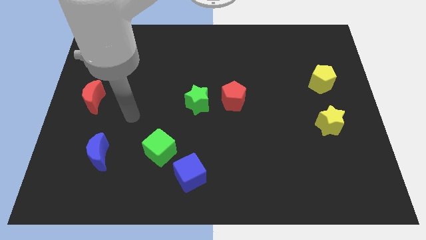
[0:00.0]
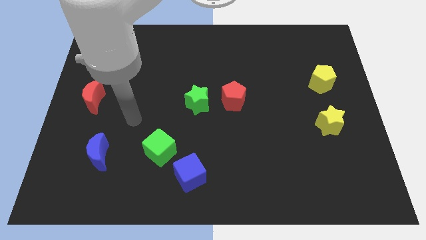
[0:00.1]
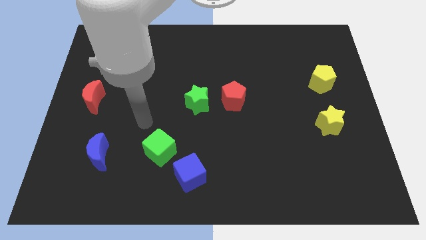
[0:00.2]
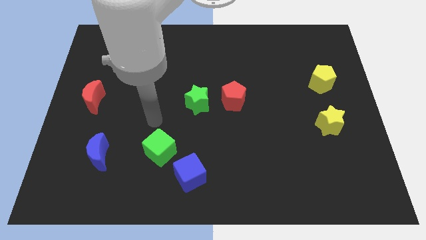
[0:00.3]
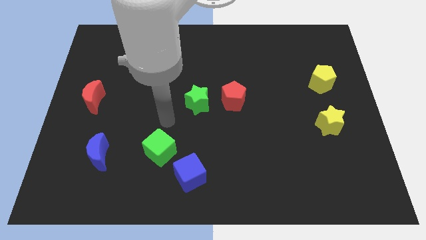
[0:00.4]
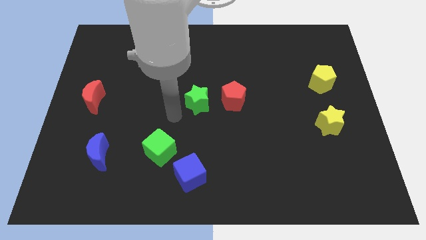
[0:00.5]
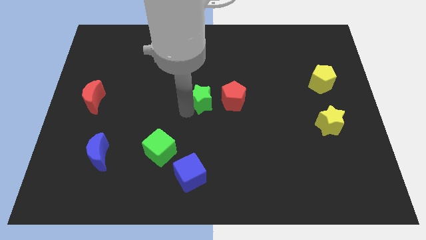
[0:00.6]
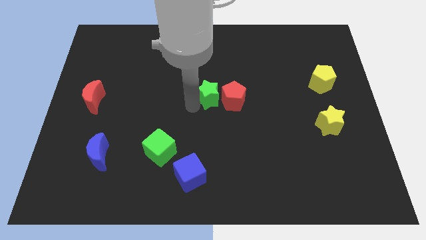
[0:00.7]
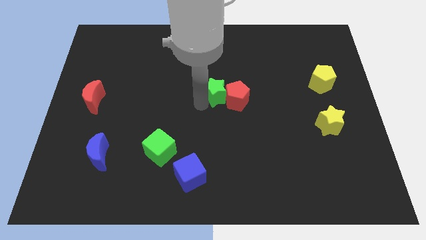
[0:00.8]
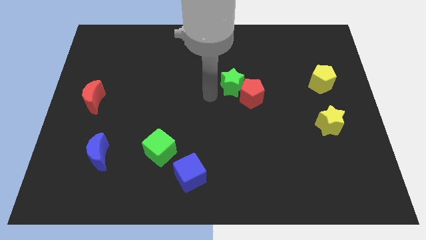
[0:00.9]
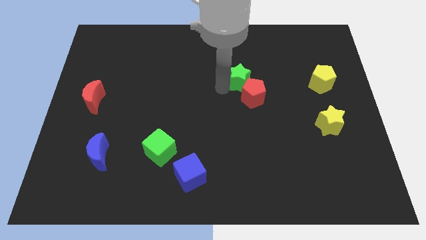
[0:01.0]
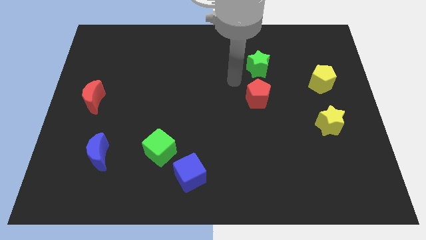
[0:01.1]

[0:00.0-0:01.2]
move the red pentagon away from the green star

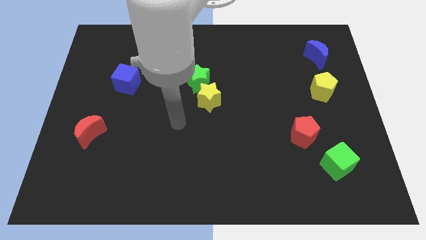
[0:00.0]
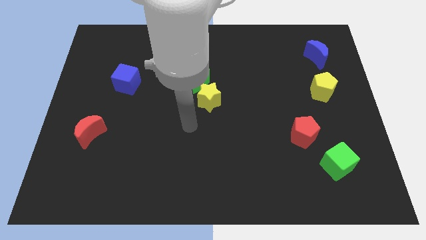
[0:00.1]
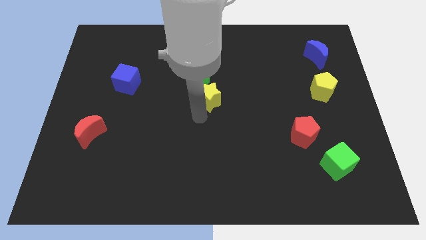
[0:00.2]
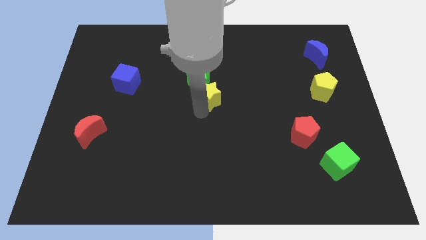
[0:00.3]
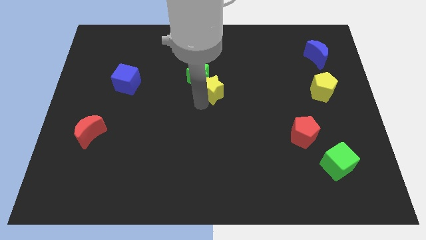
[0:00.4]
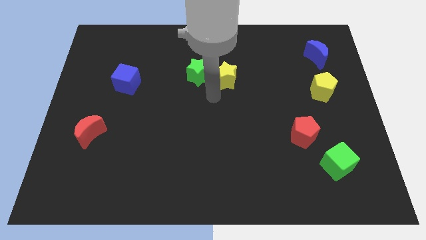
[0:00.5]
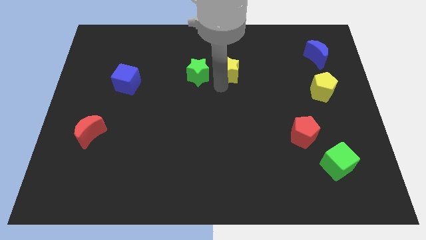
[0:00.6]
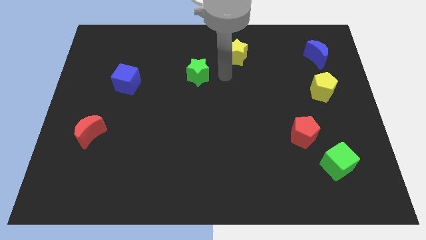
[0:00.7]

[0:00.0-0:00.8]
pull the green star apart from the yellow star

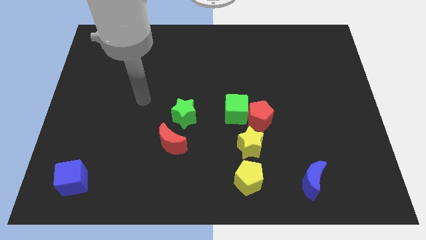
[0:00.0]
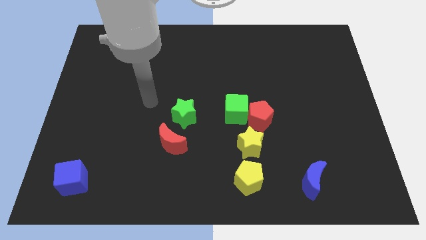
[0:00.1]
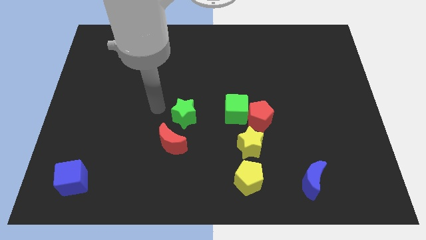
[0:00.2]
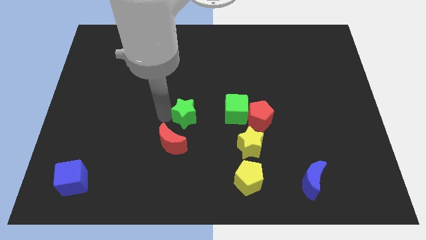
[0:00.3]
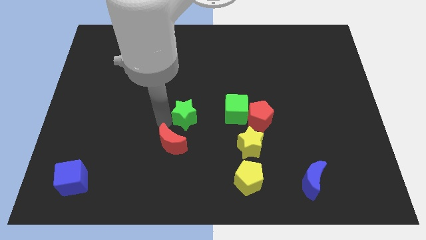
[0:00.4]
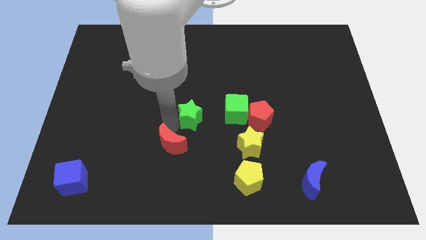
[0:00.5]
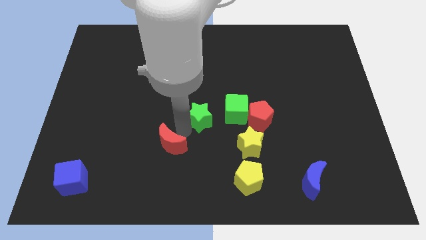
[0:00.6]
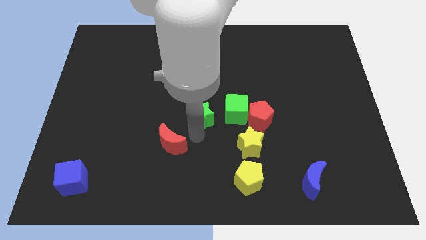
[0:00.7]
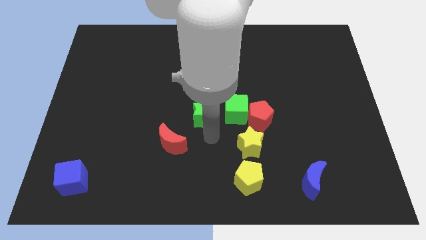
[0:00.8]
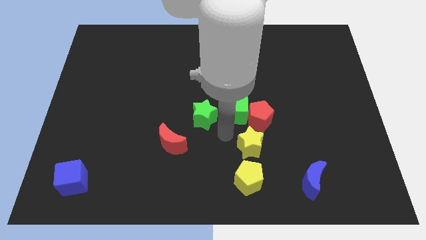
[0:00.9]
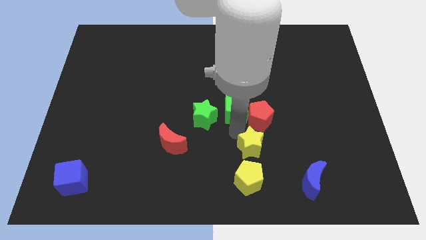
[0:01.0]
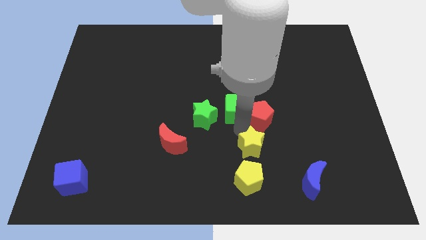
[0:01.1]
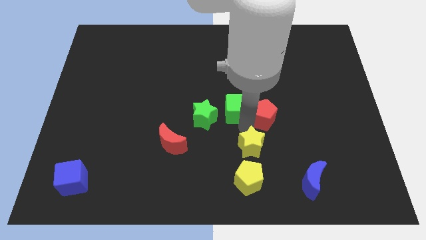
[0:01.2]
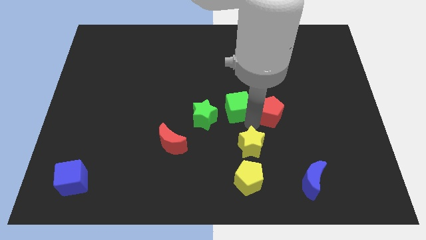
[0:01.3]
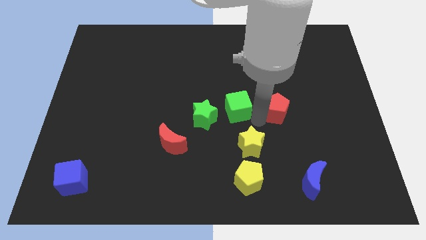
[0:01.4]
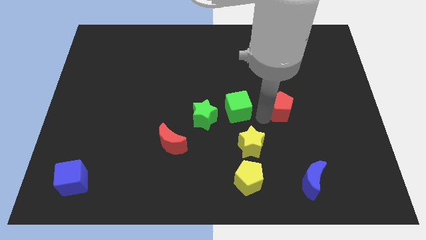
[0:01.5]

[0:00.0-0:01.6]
separate the red pentagon from the green cube and yellow star

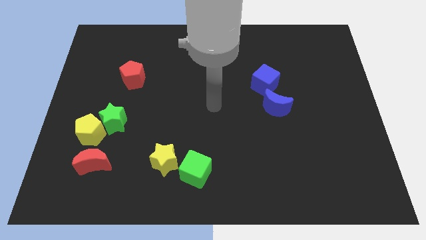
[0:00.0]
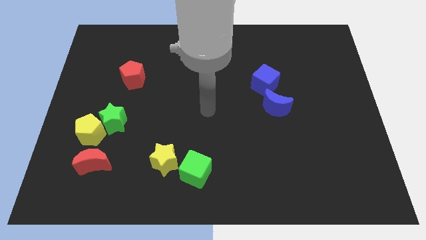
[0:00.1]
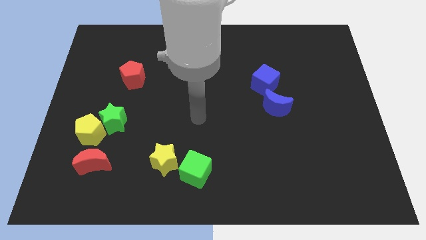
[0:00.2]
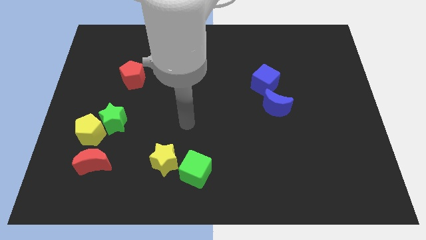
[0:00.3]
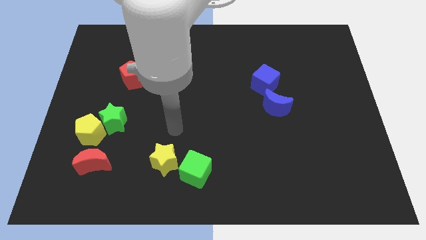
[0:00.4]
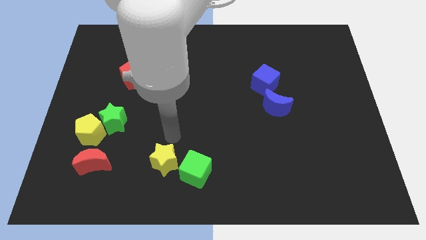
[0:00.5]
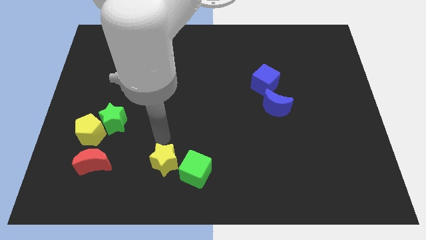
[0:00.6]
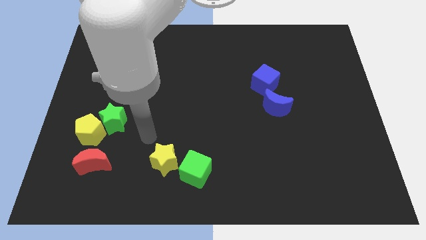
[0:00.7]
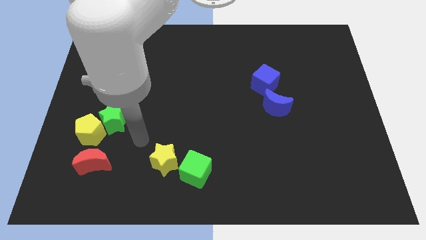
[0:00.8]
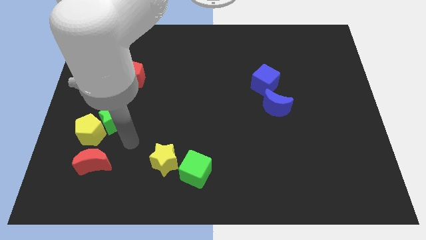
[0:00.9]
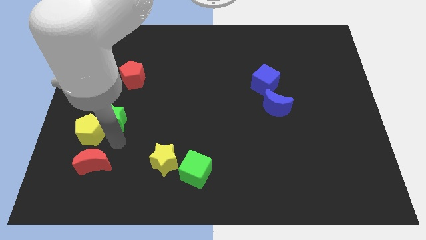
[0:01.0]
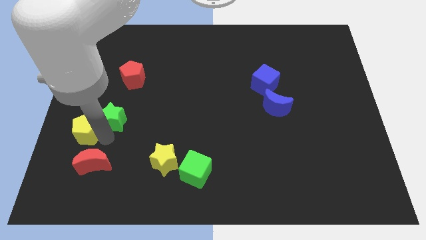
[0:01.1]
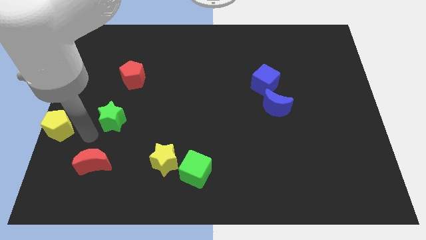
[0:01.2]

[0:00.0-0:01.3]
separate the green star from the yellow pentagon

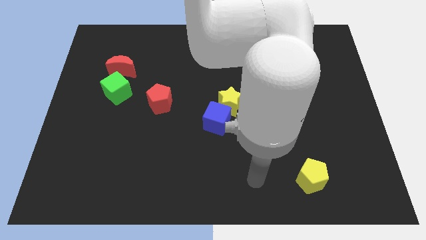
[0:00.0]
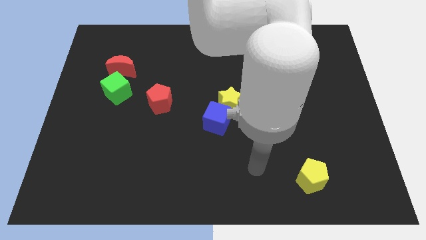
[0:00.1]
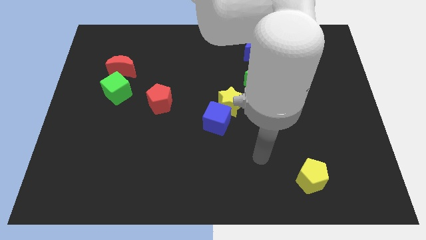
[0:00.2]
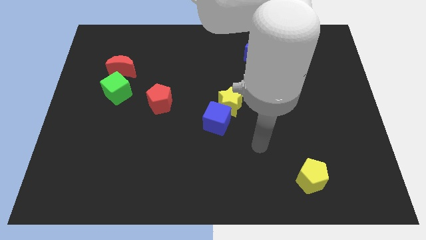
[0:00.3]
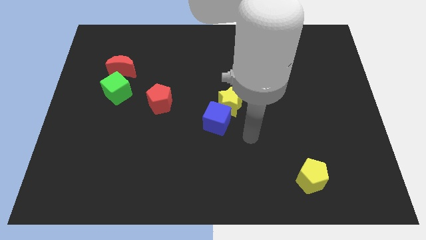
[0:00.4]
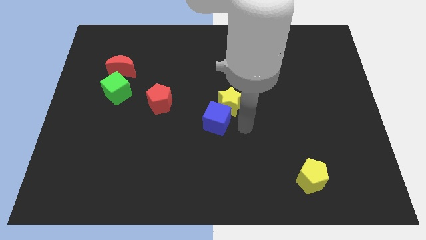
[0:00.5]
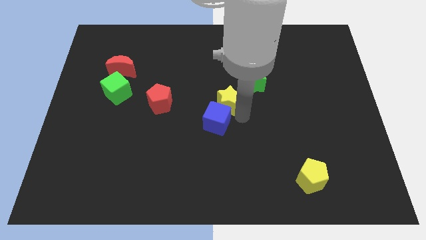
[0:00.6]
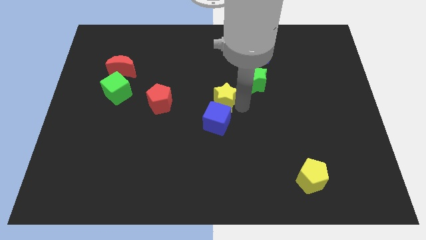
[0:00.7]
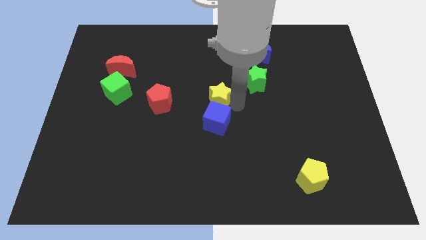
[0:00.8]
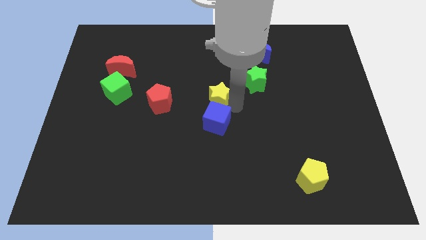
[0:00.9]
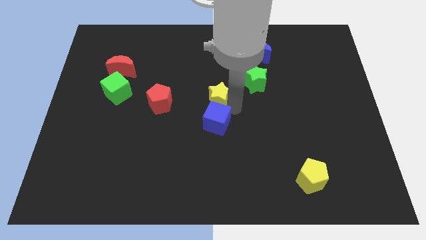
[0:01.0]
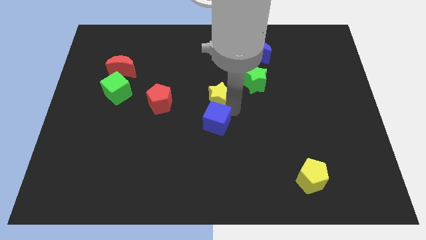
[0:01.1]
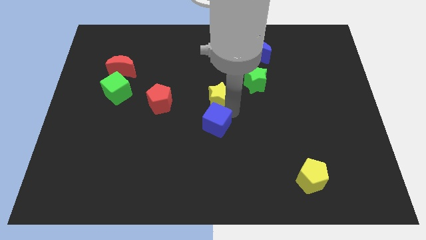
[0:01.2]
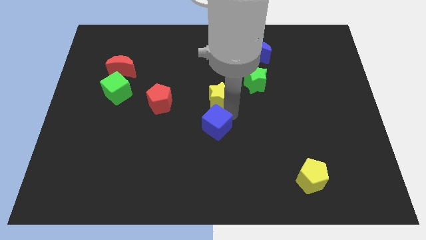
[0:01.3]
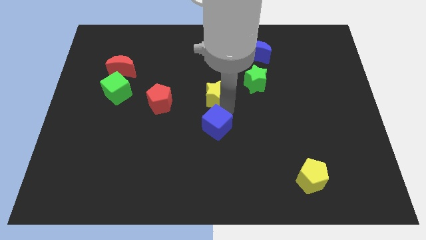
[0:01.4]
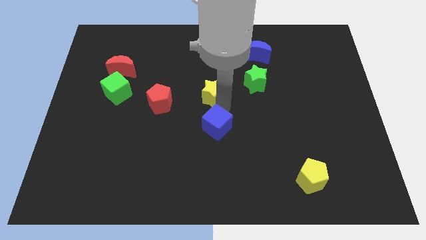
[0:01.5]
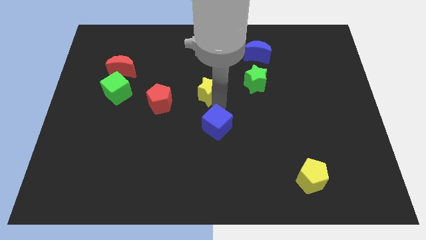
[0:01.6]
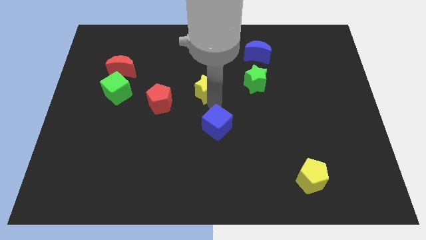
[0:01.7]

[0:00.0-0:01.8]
separate the blue cube from the yellow star

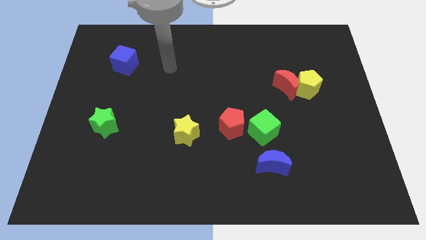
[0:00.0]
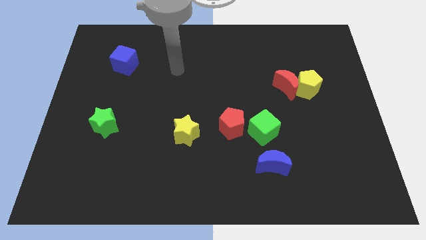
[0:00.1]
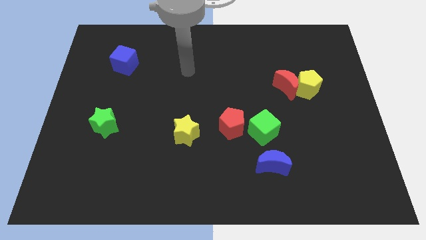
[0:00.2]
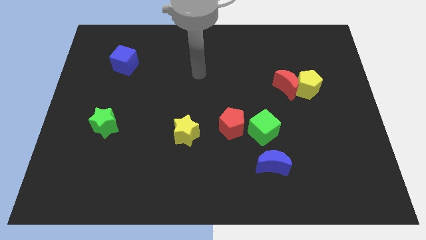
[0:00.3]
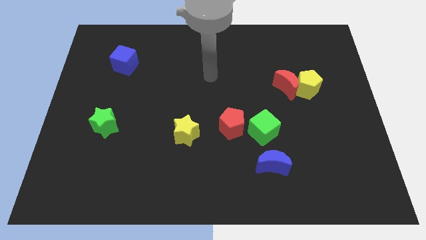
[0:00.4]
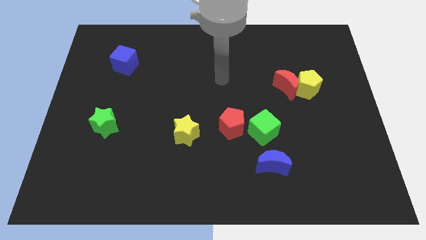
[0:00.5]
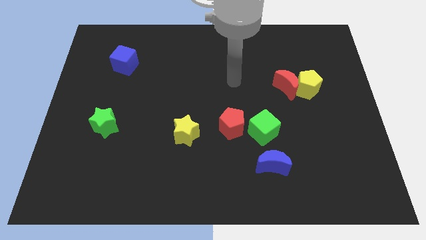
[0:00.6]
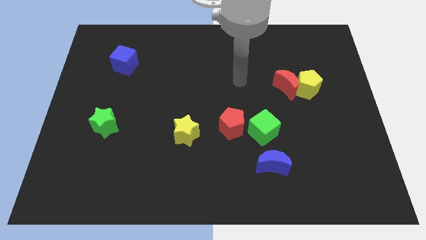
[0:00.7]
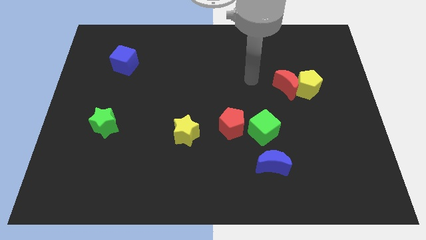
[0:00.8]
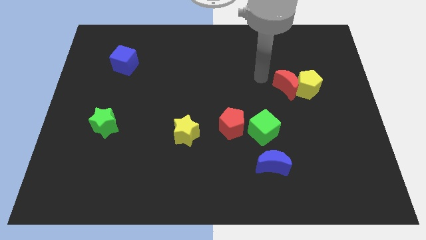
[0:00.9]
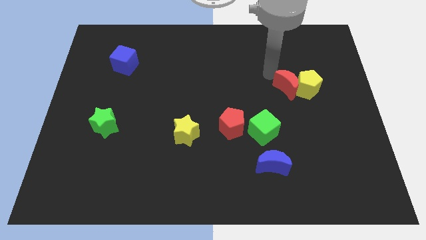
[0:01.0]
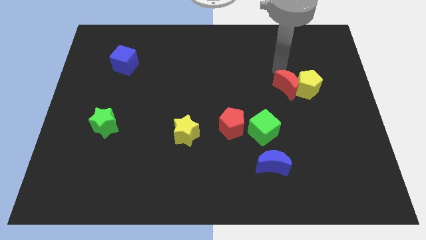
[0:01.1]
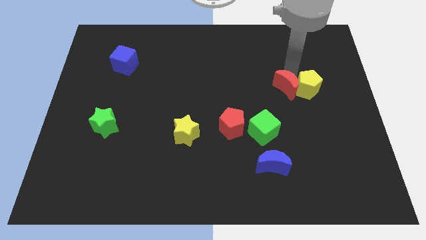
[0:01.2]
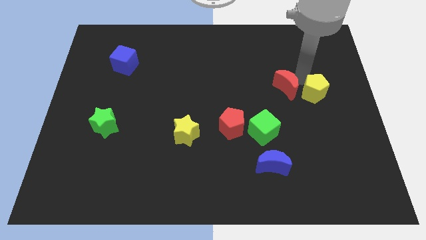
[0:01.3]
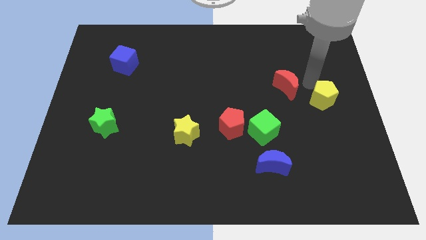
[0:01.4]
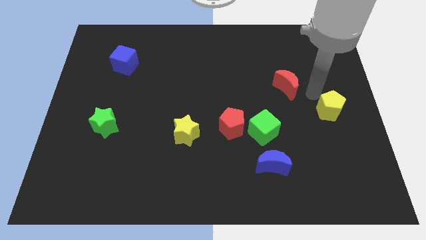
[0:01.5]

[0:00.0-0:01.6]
move the red moon away from the yellow pentagon

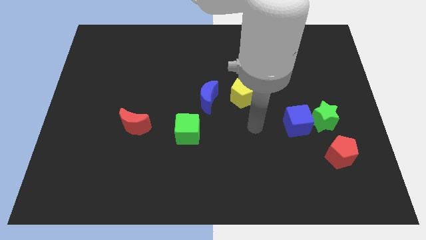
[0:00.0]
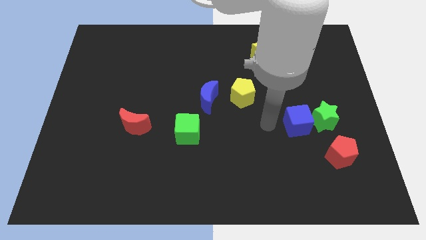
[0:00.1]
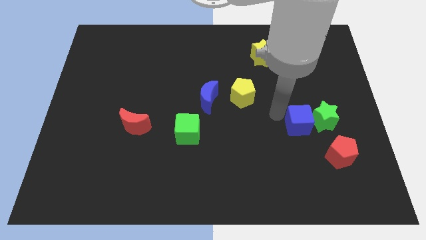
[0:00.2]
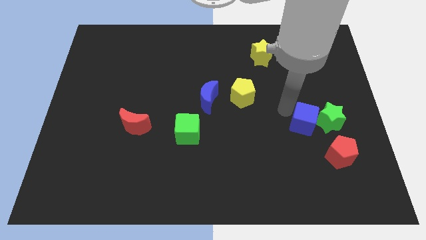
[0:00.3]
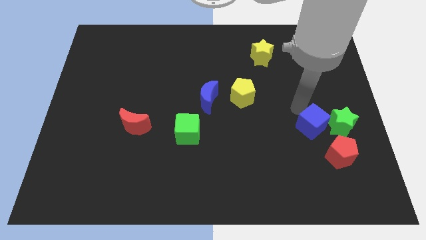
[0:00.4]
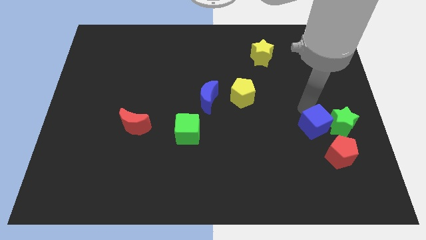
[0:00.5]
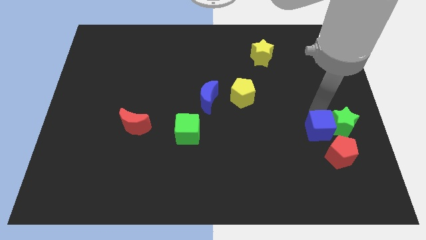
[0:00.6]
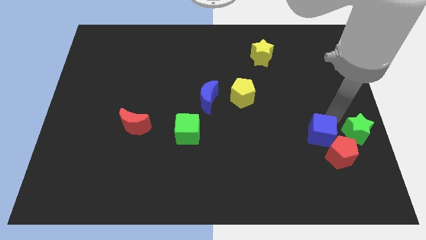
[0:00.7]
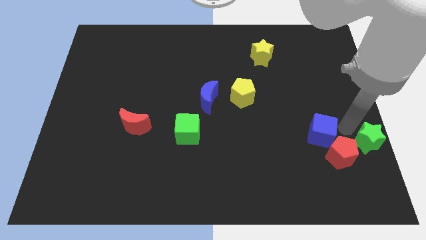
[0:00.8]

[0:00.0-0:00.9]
move the blue cube away from the green star

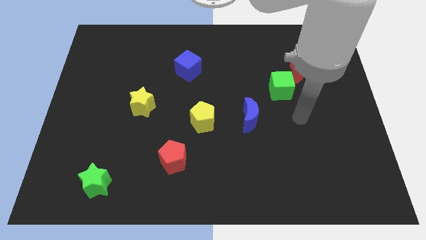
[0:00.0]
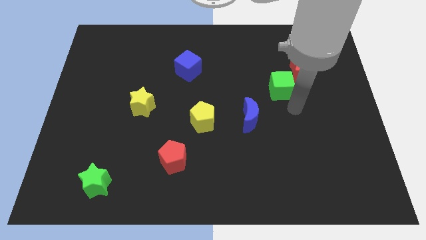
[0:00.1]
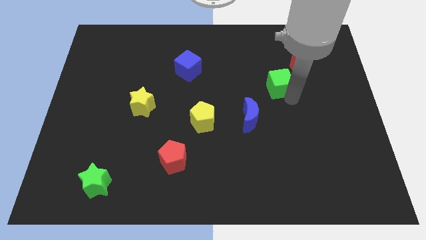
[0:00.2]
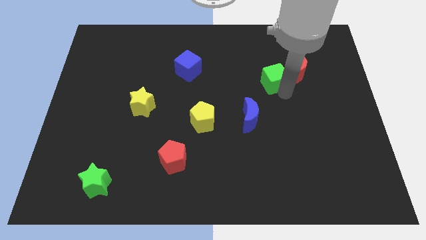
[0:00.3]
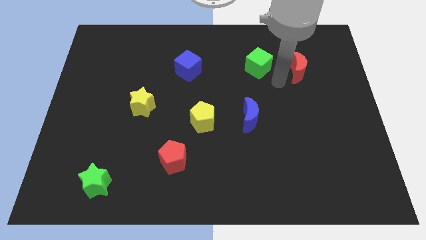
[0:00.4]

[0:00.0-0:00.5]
separate the red moon from the green cube
